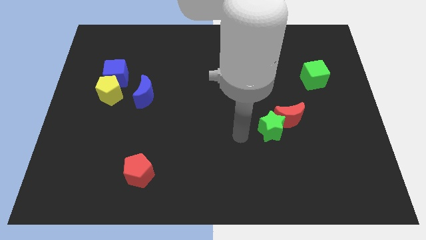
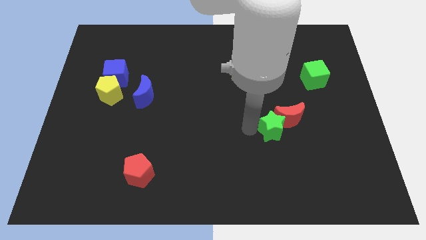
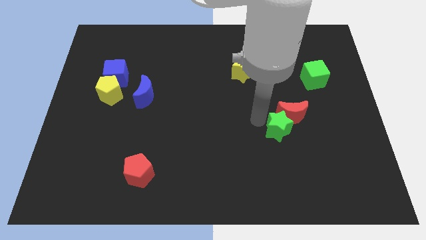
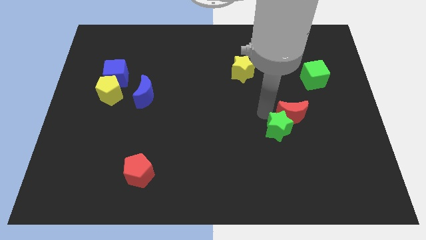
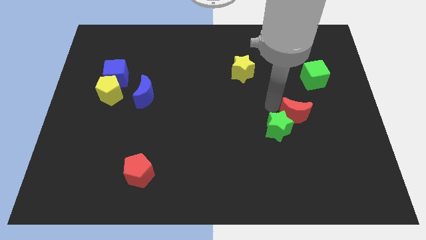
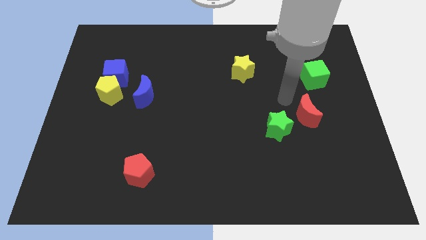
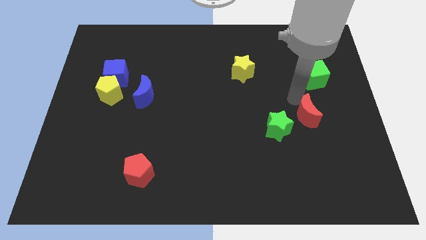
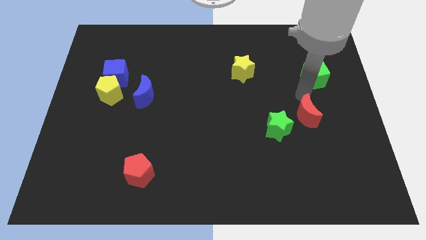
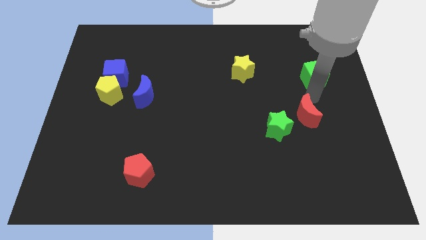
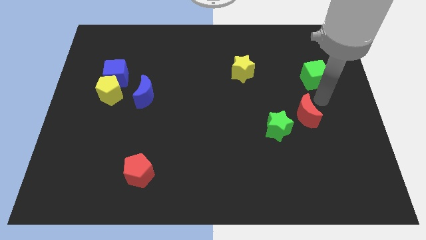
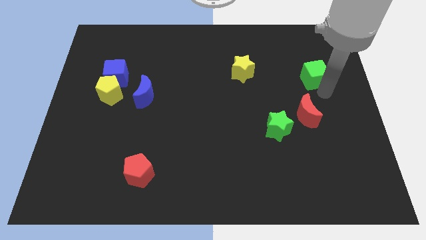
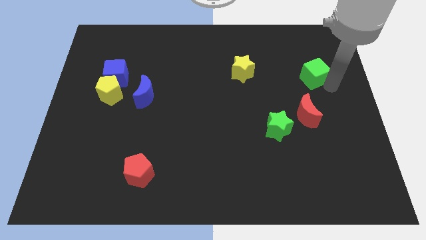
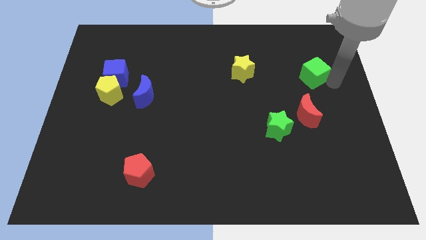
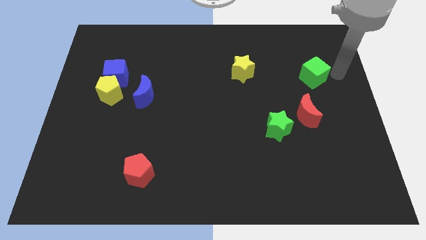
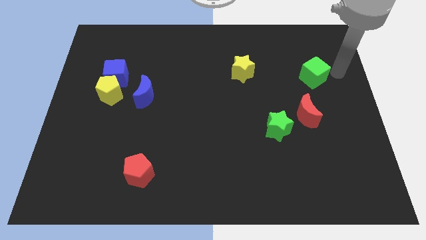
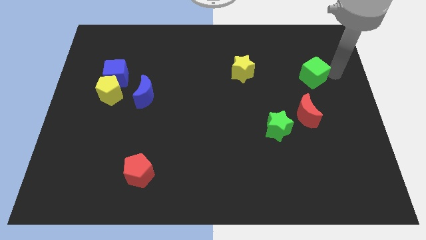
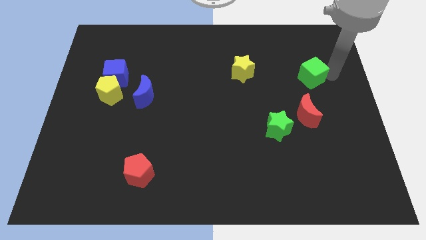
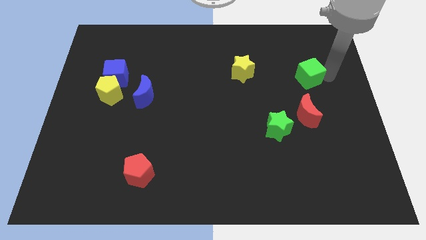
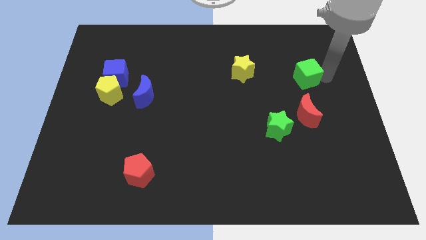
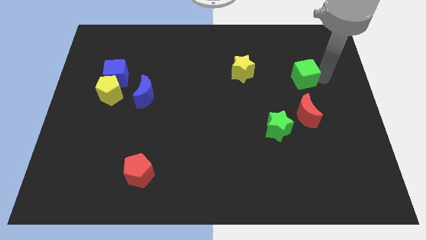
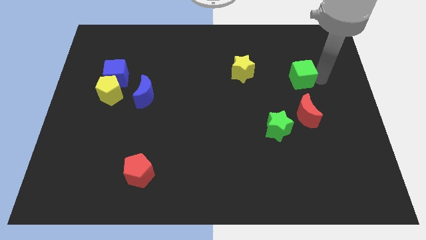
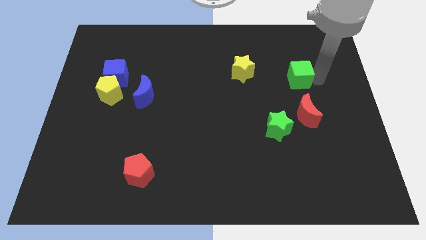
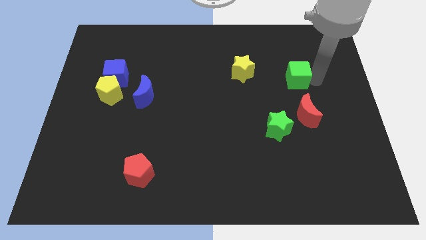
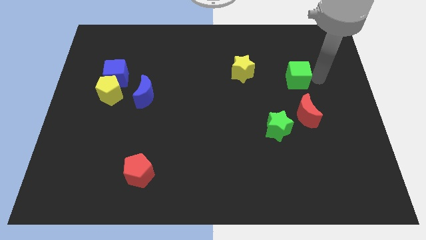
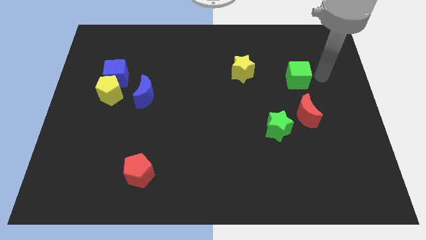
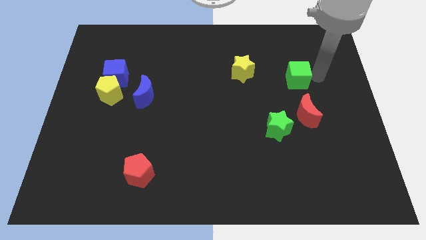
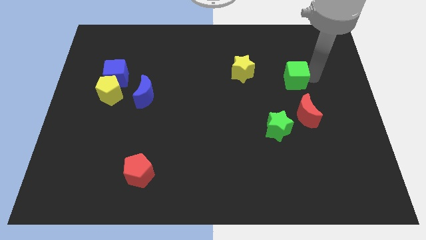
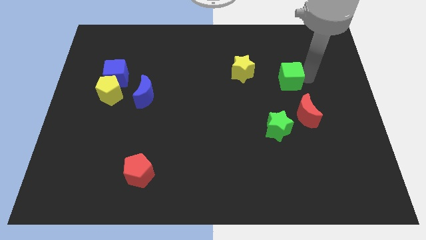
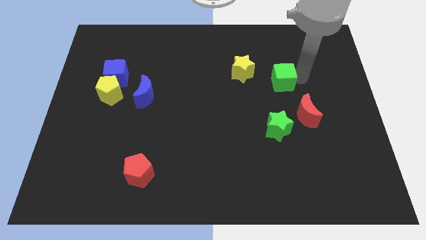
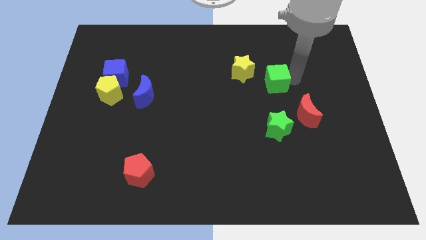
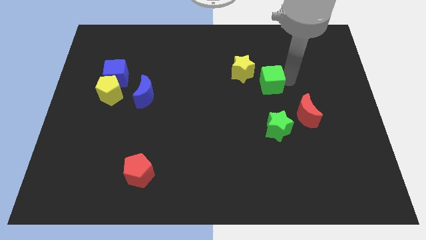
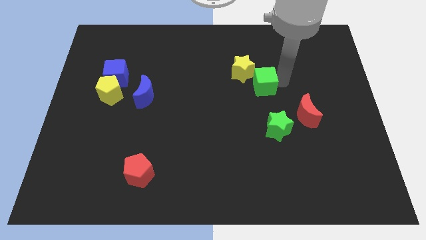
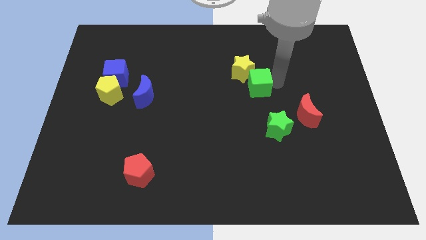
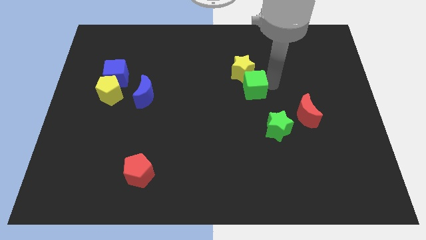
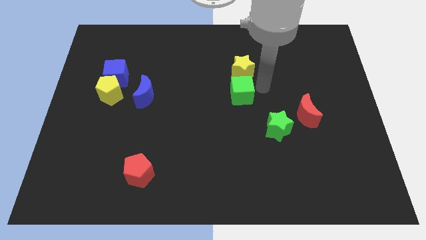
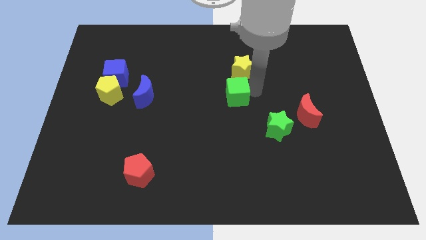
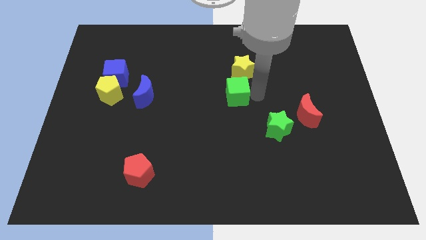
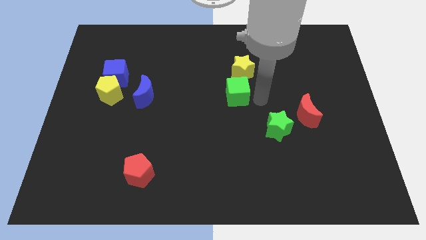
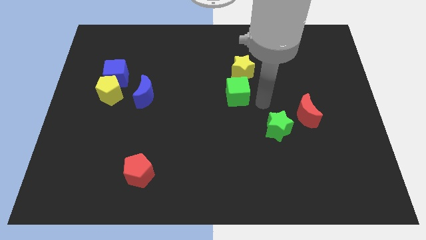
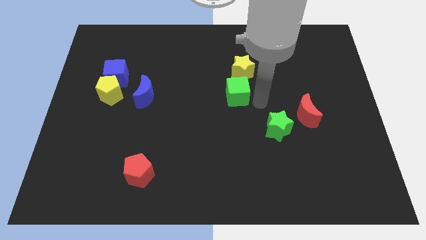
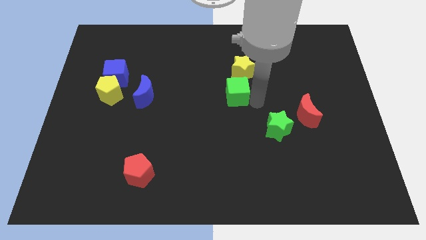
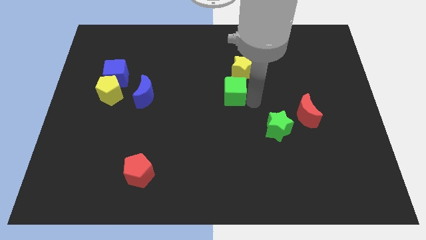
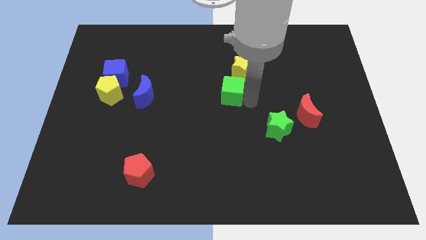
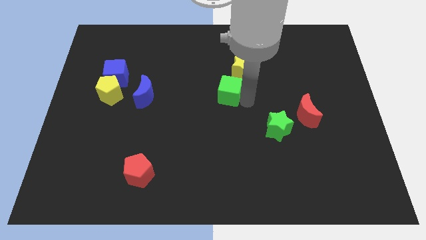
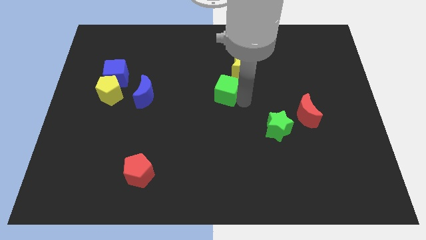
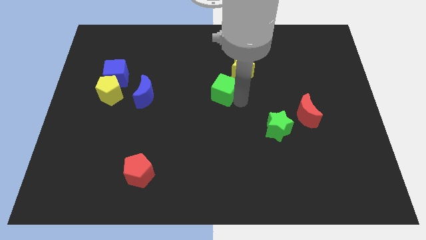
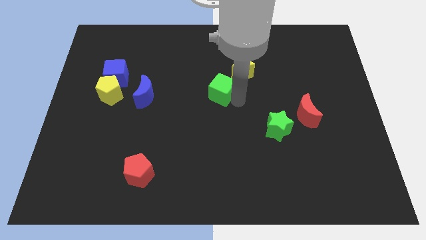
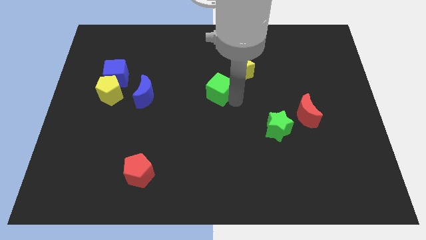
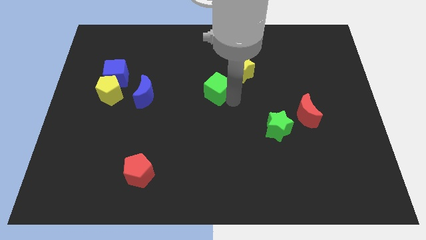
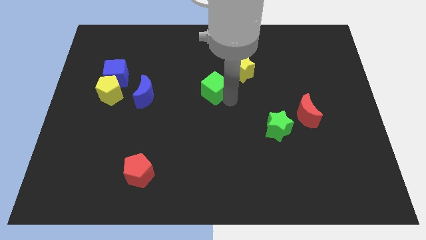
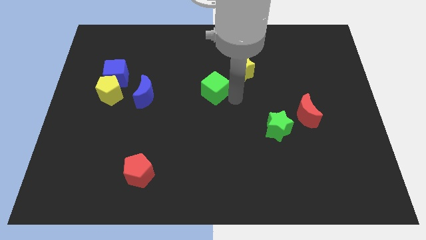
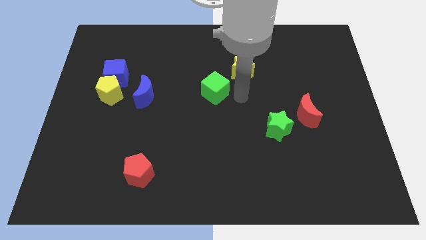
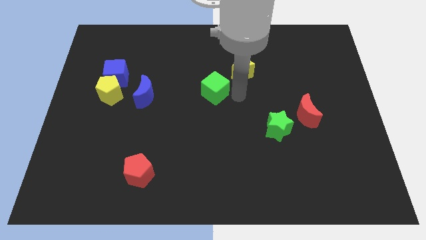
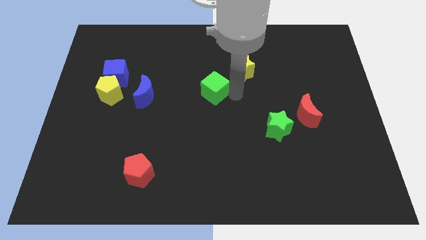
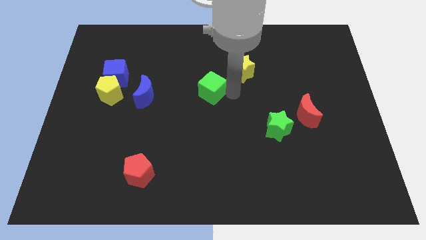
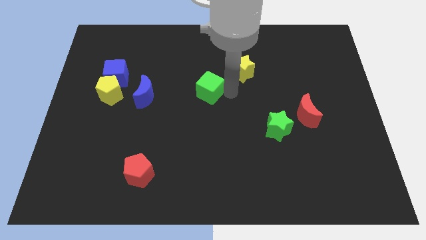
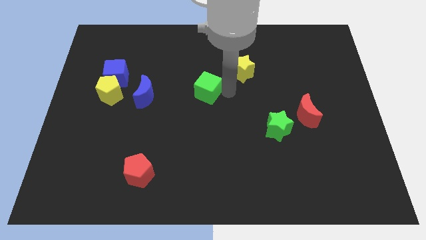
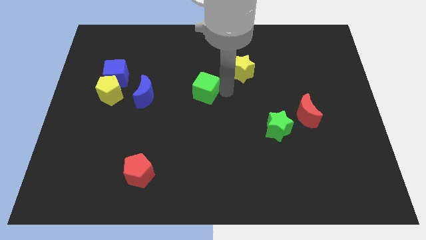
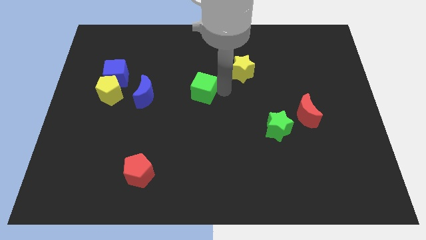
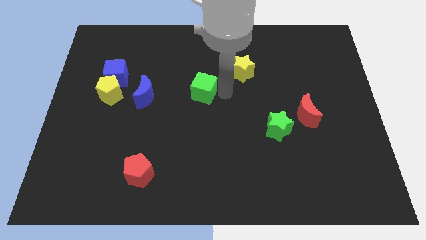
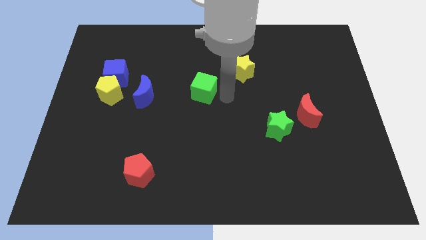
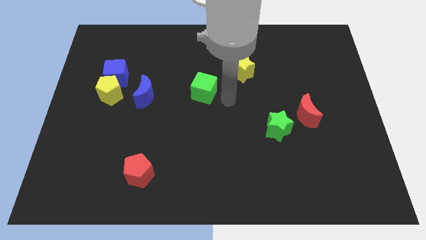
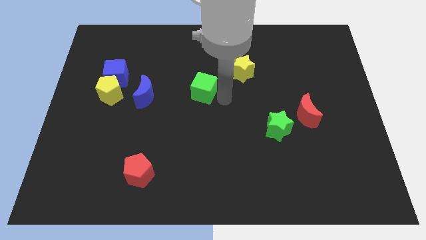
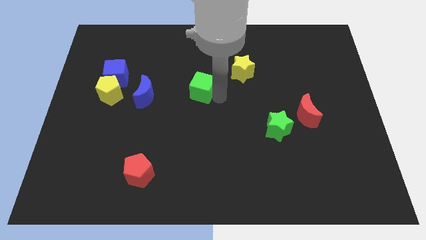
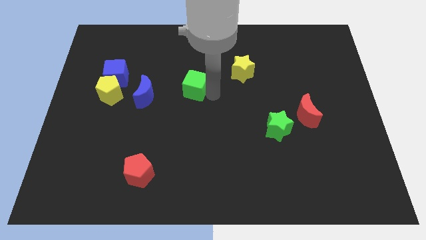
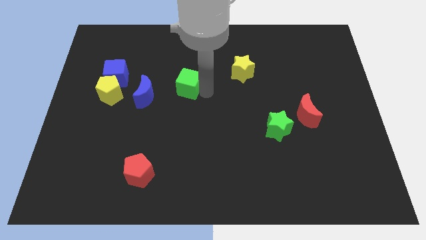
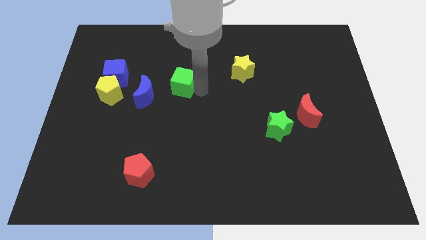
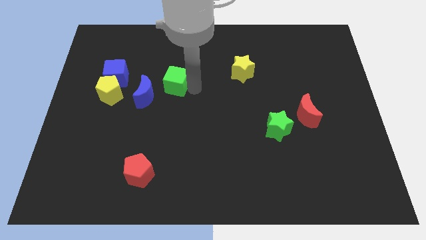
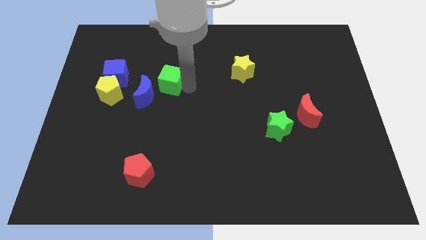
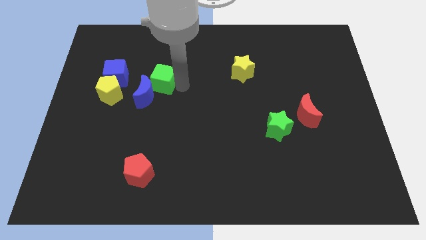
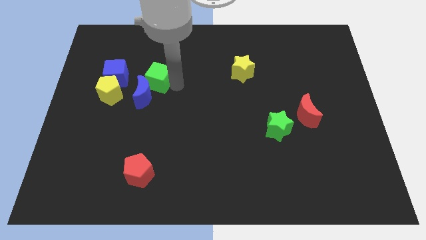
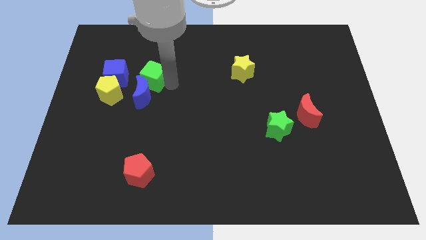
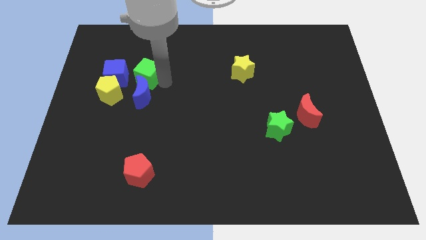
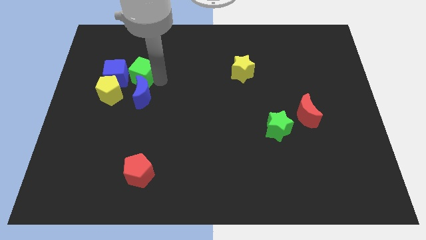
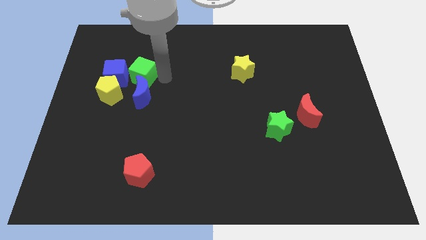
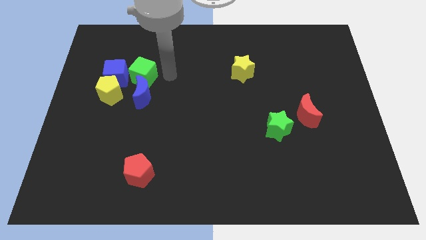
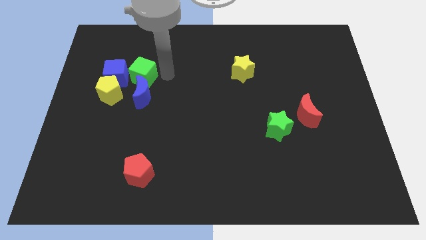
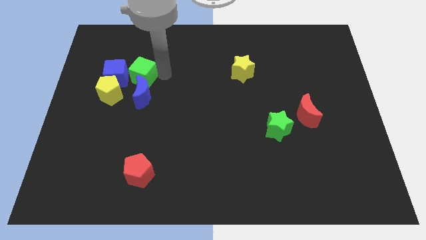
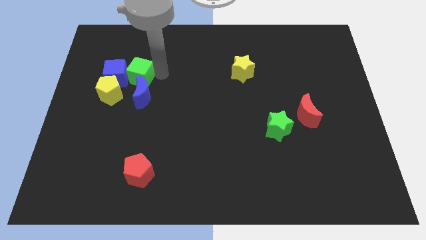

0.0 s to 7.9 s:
slide the green cube next to the blue cube
